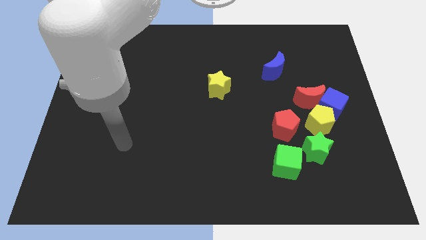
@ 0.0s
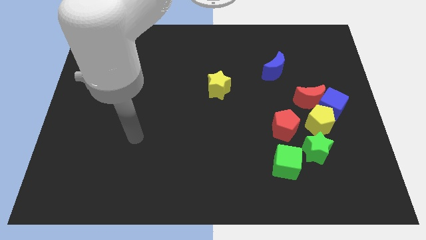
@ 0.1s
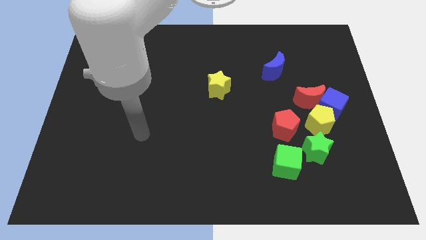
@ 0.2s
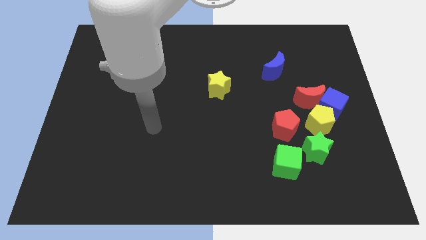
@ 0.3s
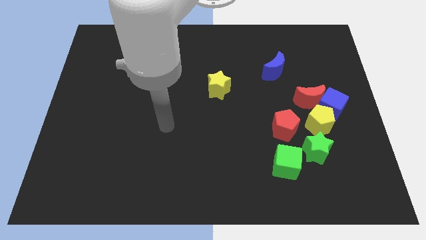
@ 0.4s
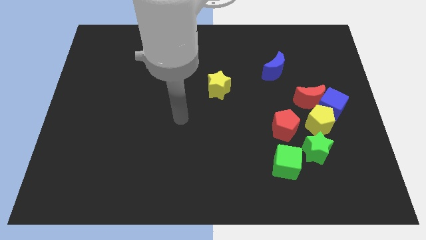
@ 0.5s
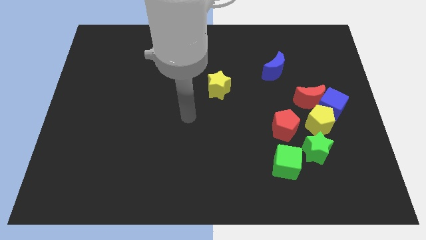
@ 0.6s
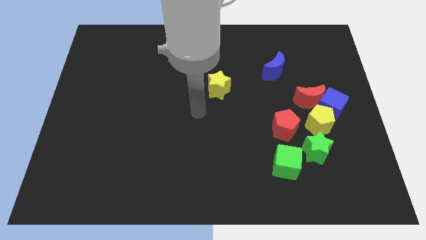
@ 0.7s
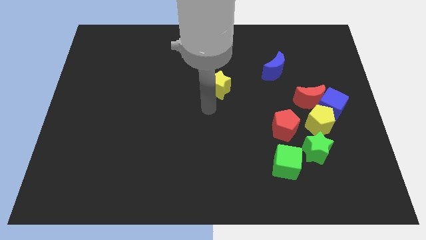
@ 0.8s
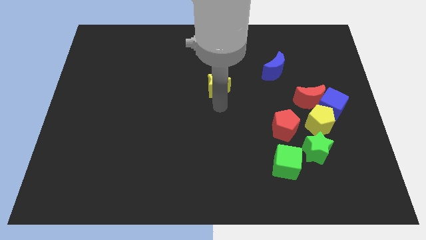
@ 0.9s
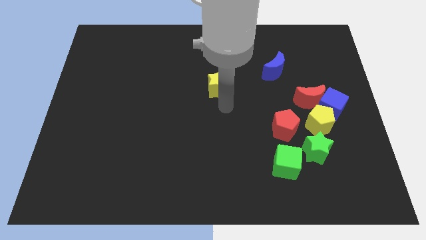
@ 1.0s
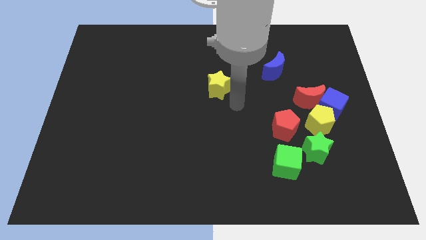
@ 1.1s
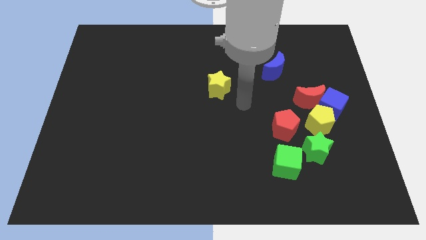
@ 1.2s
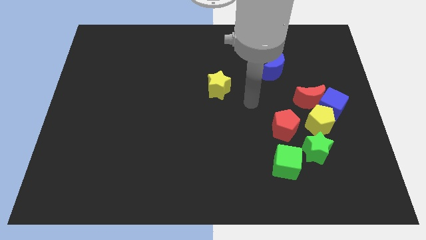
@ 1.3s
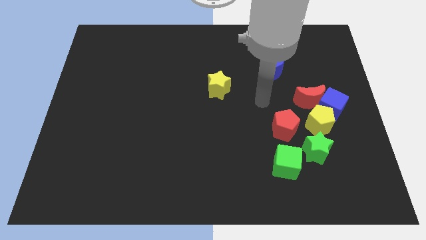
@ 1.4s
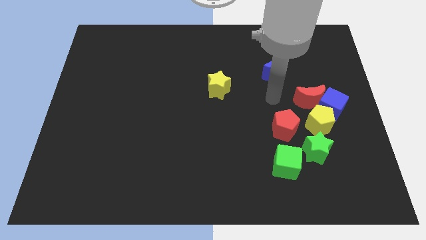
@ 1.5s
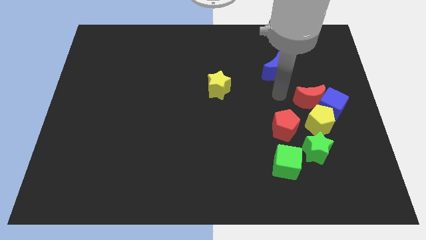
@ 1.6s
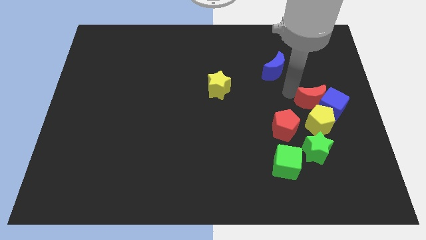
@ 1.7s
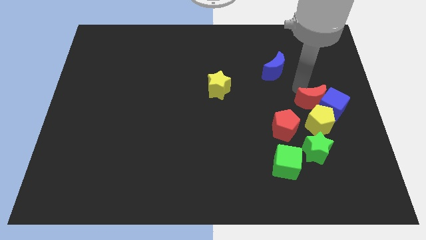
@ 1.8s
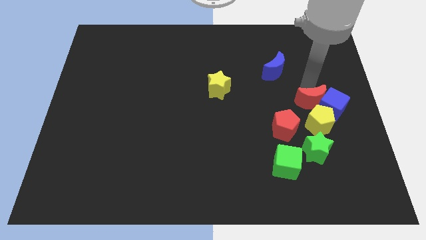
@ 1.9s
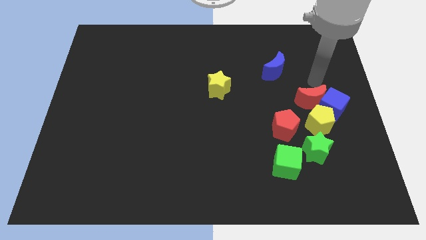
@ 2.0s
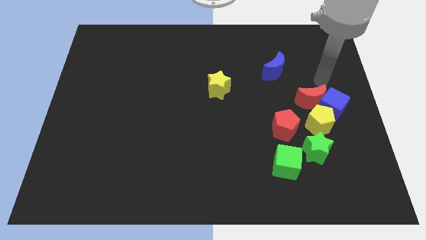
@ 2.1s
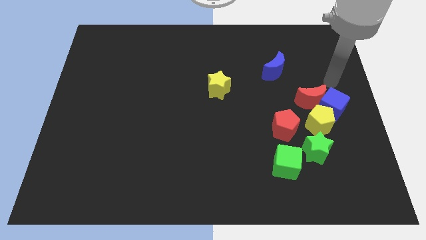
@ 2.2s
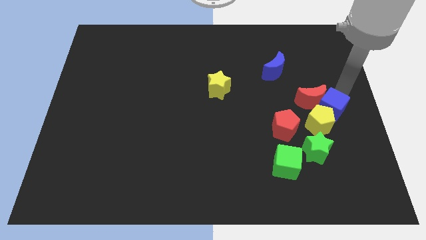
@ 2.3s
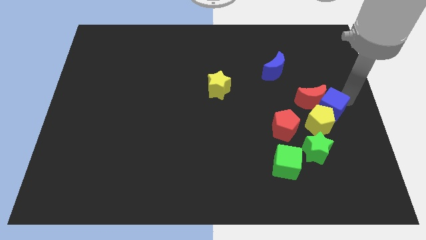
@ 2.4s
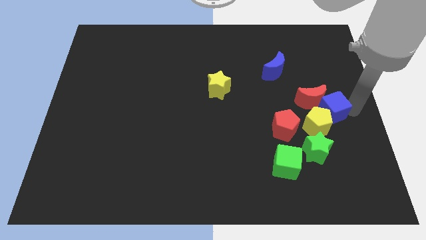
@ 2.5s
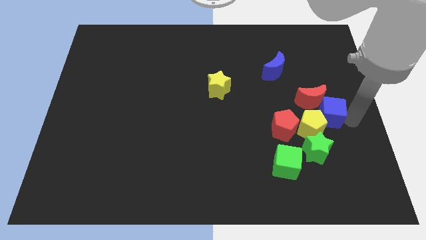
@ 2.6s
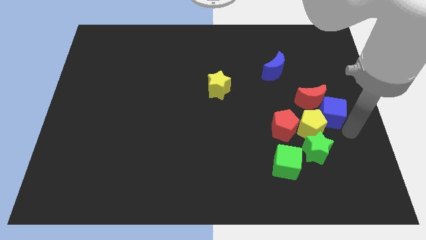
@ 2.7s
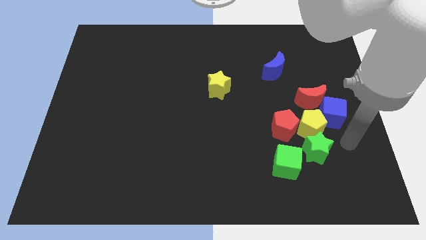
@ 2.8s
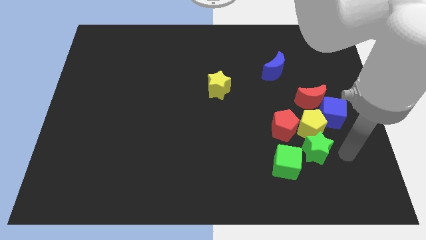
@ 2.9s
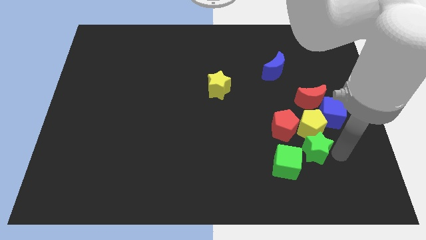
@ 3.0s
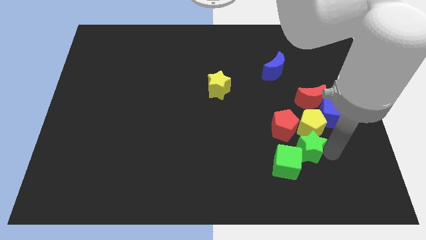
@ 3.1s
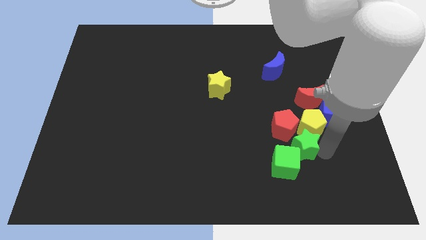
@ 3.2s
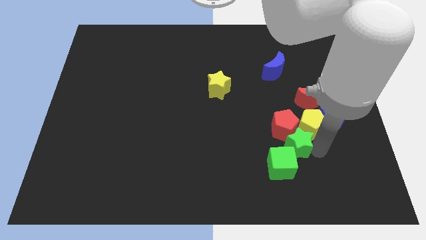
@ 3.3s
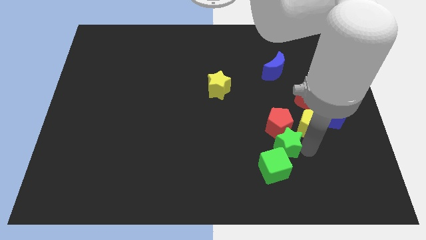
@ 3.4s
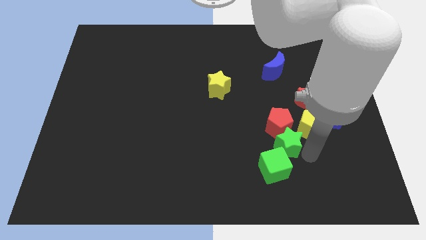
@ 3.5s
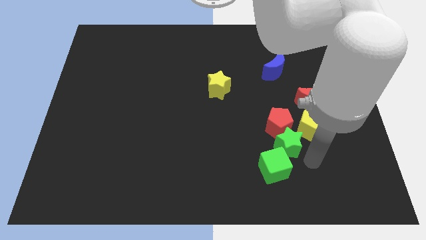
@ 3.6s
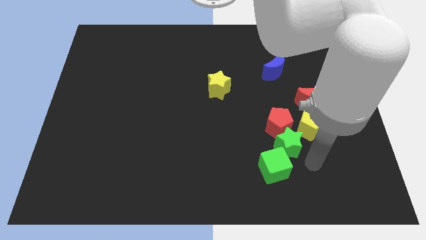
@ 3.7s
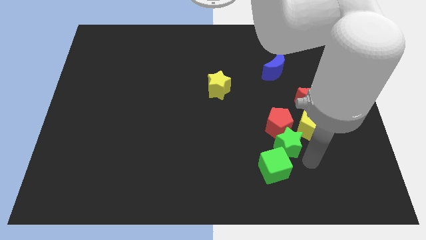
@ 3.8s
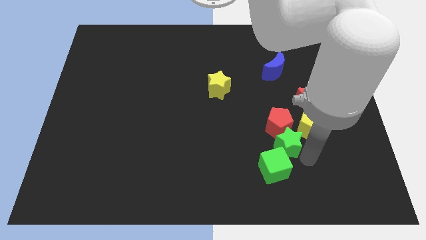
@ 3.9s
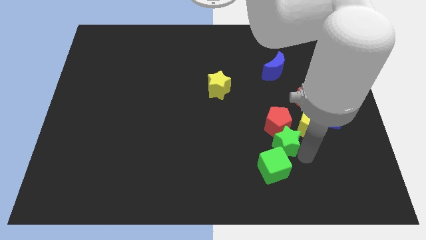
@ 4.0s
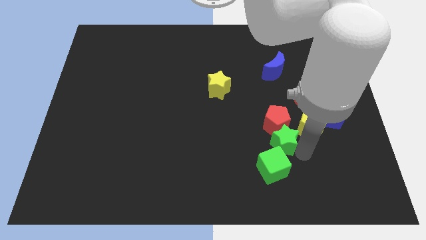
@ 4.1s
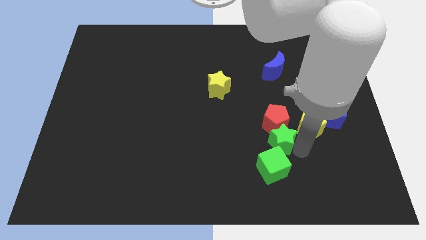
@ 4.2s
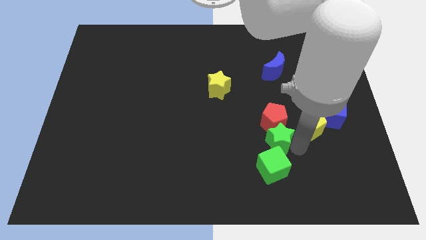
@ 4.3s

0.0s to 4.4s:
push the green star a bit up and left diagonally

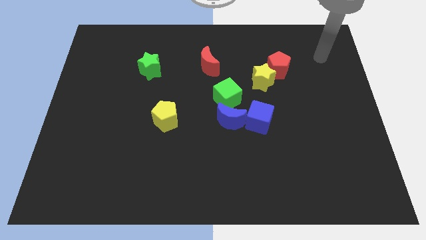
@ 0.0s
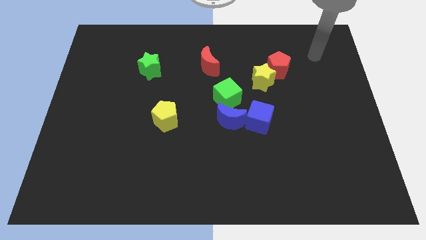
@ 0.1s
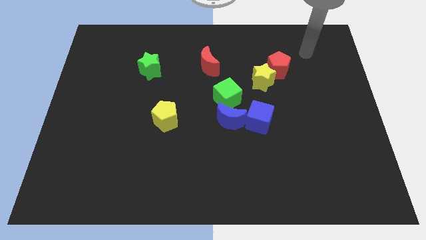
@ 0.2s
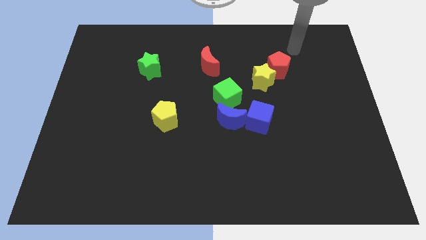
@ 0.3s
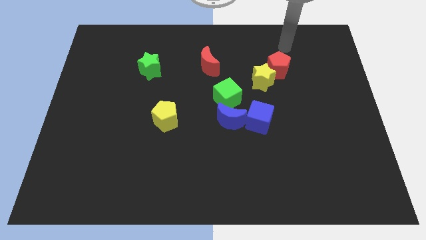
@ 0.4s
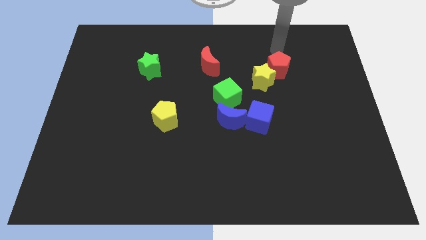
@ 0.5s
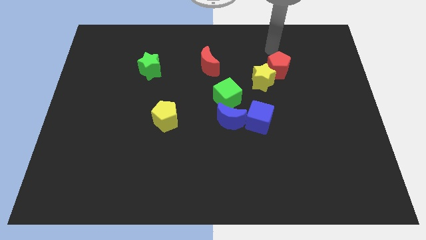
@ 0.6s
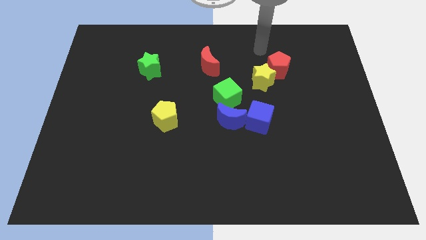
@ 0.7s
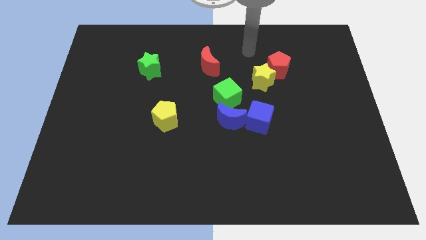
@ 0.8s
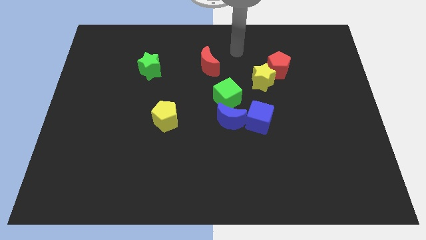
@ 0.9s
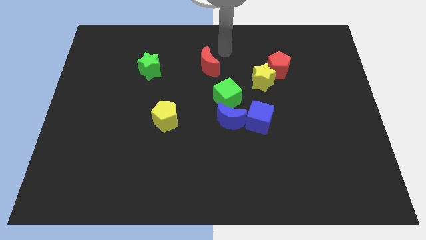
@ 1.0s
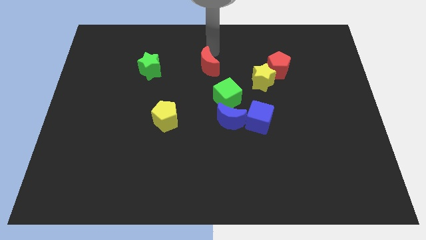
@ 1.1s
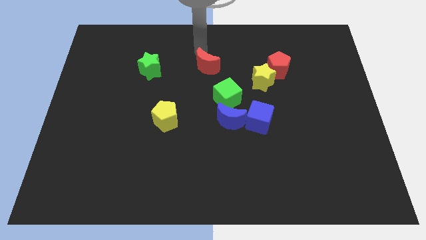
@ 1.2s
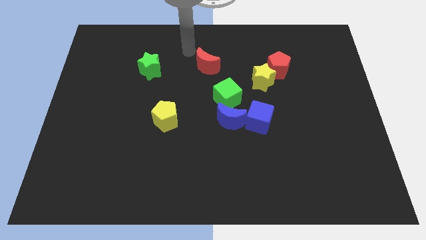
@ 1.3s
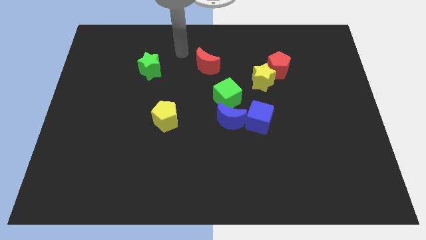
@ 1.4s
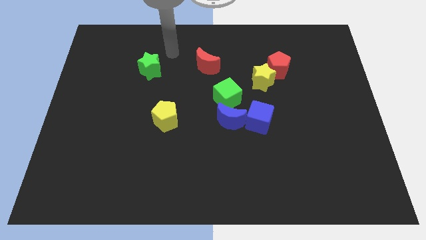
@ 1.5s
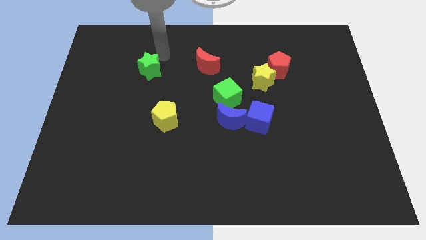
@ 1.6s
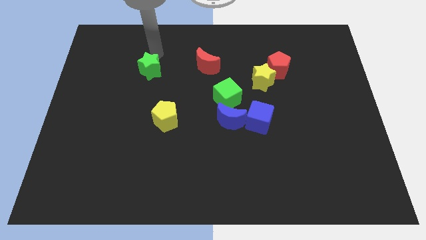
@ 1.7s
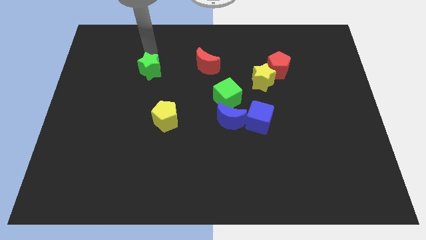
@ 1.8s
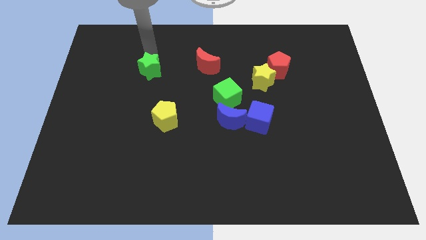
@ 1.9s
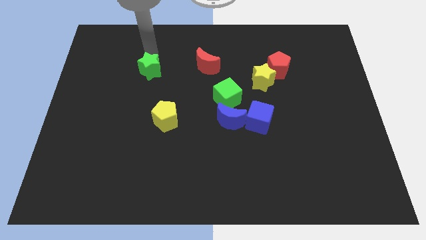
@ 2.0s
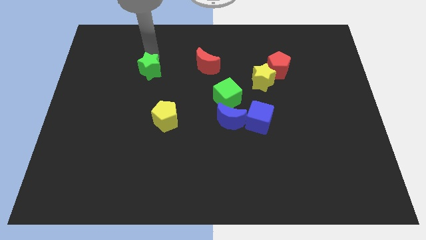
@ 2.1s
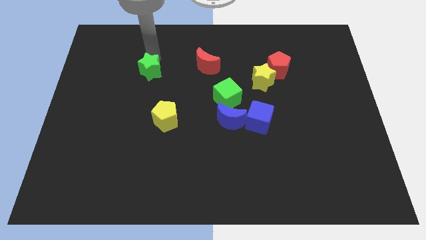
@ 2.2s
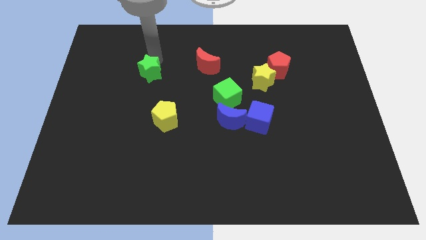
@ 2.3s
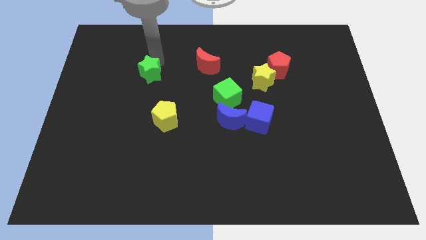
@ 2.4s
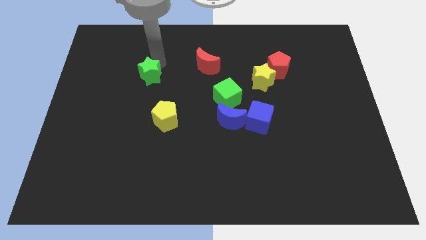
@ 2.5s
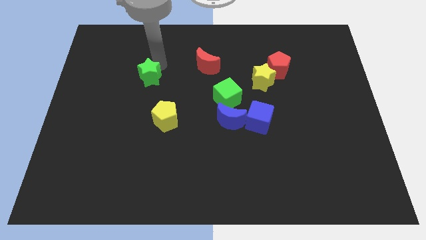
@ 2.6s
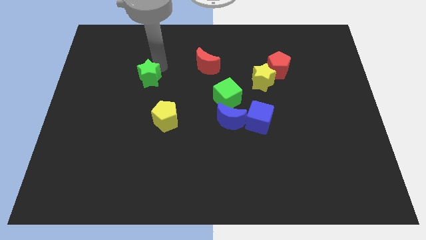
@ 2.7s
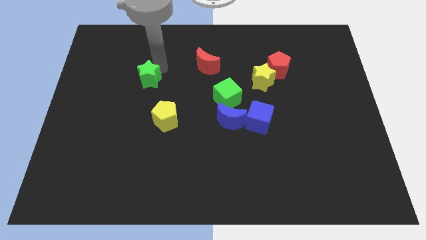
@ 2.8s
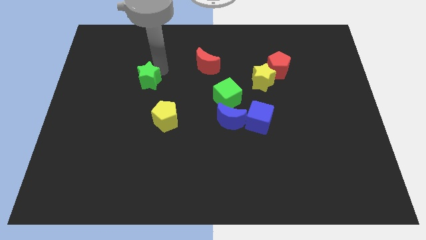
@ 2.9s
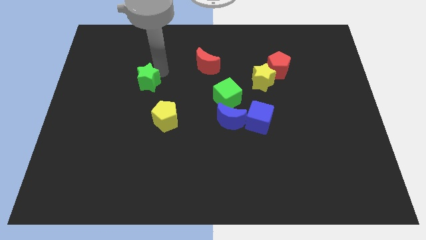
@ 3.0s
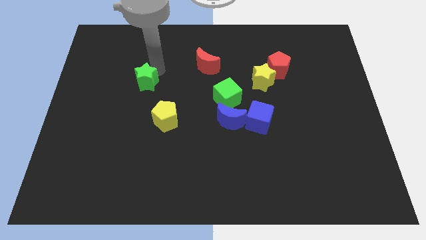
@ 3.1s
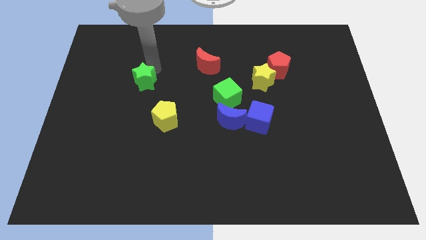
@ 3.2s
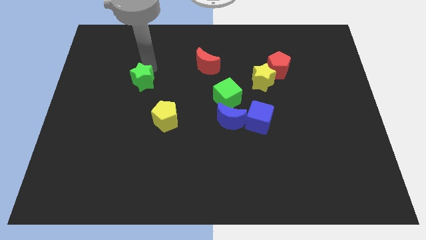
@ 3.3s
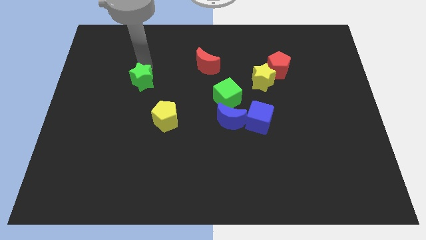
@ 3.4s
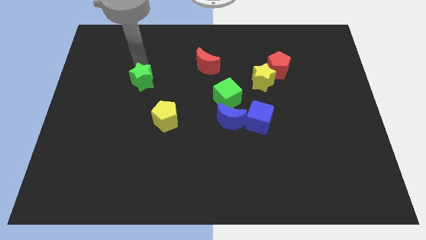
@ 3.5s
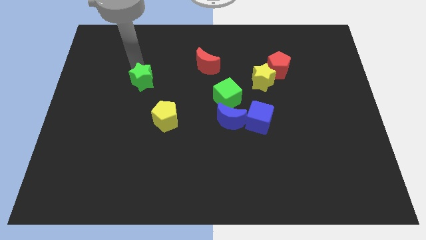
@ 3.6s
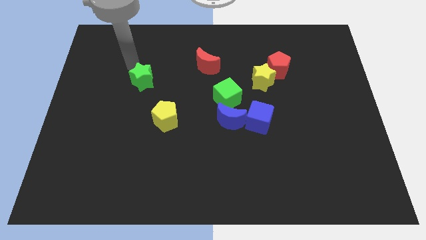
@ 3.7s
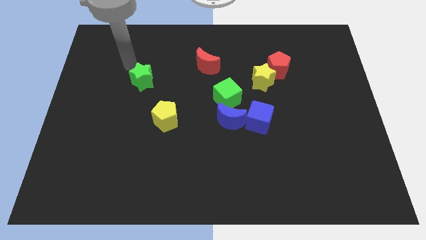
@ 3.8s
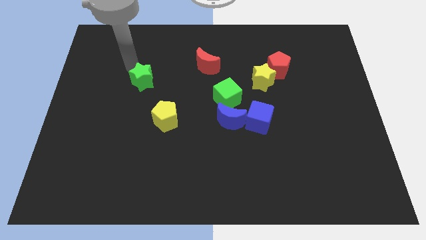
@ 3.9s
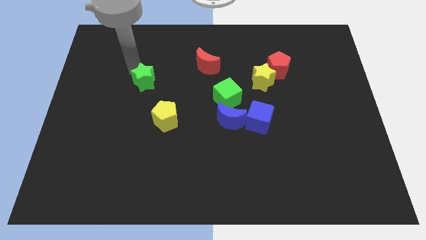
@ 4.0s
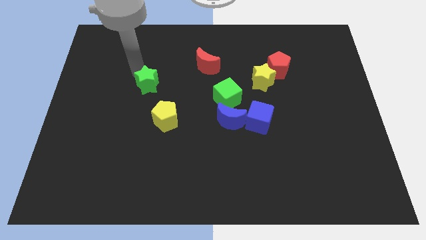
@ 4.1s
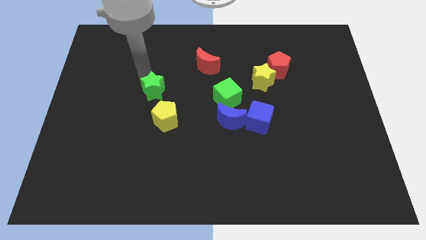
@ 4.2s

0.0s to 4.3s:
slightly slide the green star downwards
